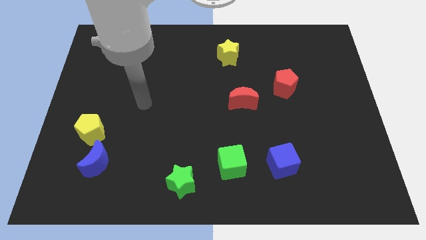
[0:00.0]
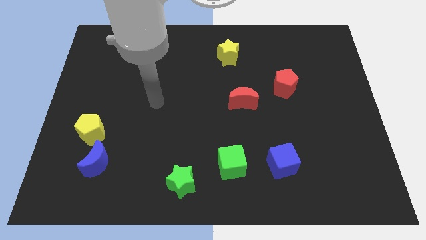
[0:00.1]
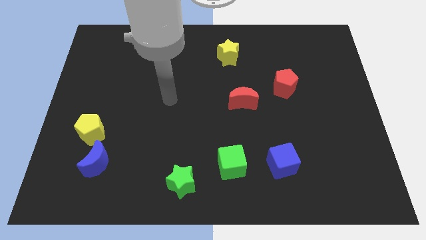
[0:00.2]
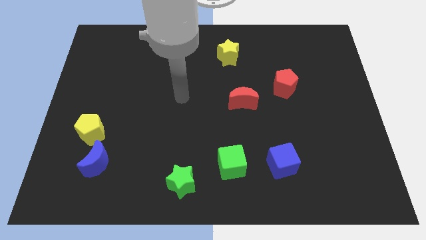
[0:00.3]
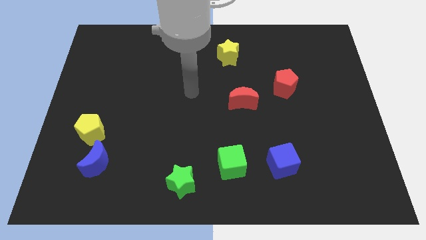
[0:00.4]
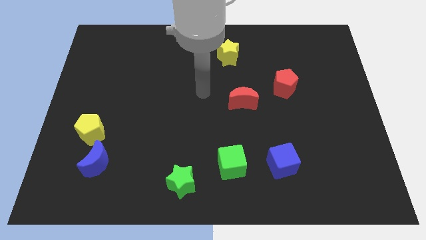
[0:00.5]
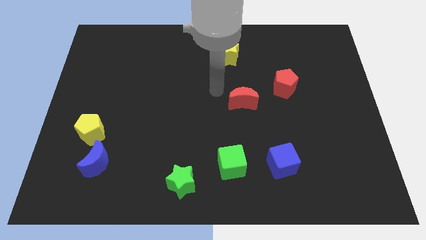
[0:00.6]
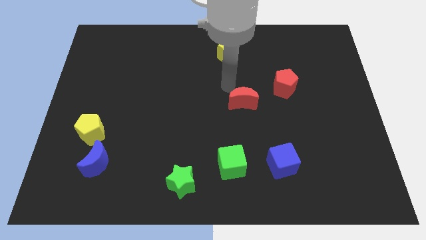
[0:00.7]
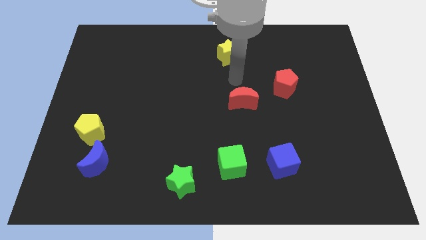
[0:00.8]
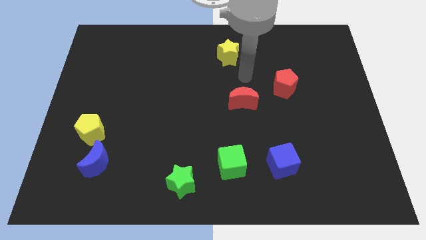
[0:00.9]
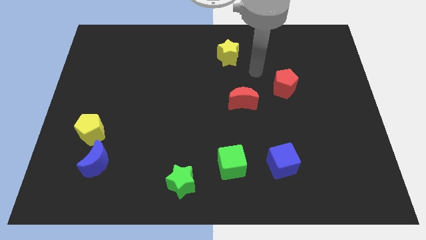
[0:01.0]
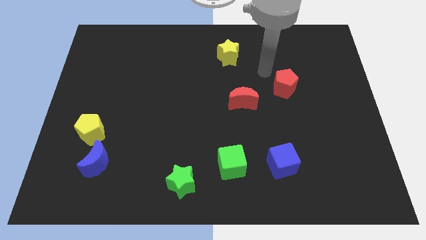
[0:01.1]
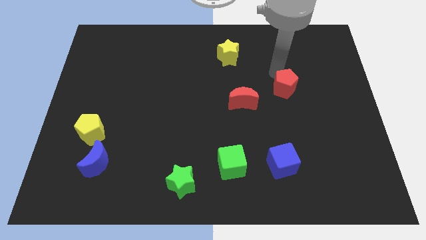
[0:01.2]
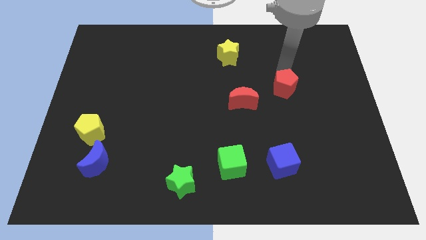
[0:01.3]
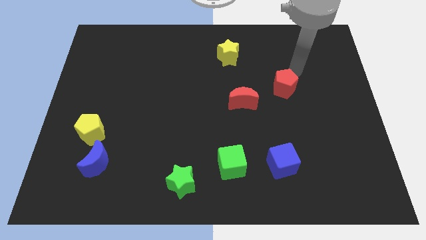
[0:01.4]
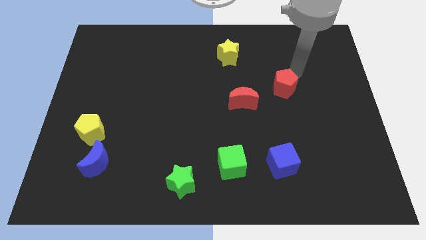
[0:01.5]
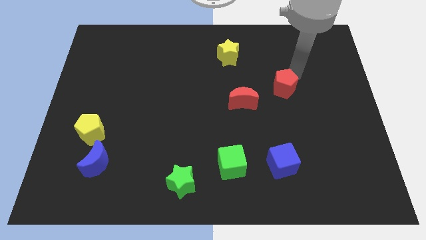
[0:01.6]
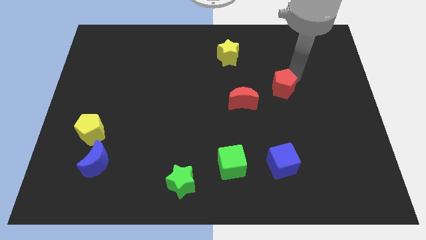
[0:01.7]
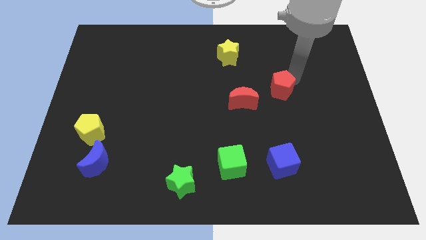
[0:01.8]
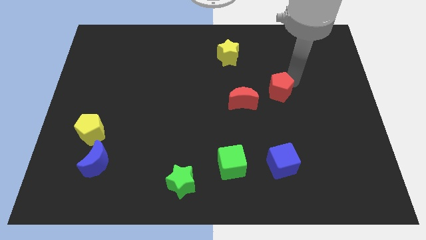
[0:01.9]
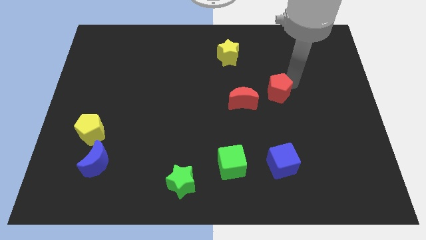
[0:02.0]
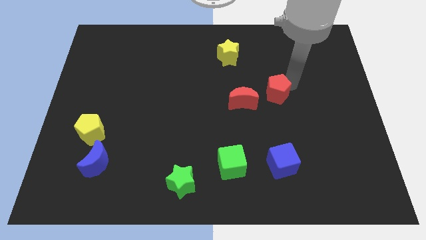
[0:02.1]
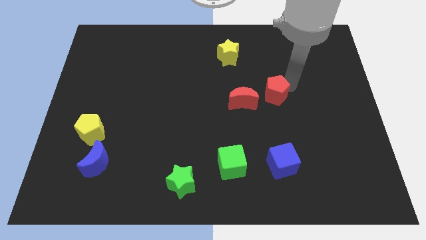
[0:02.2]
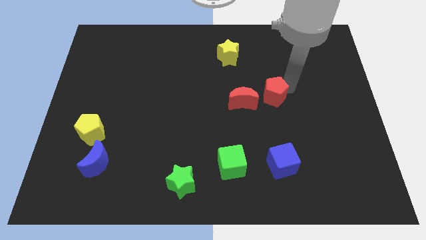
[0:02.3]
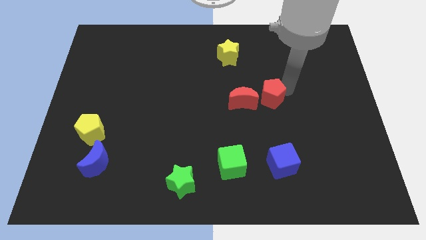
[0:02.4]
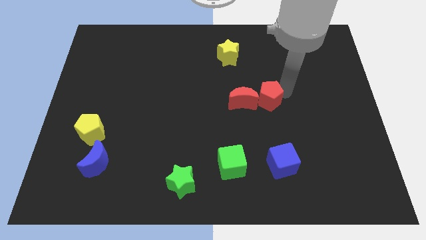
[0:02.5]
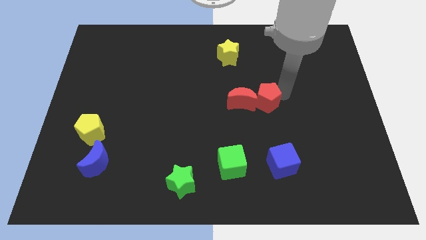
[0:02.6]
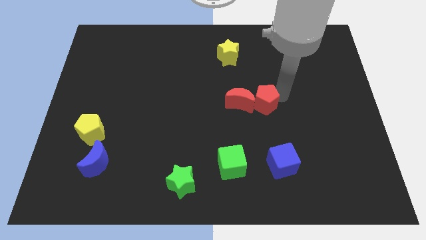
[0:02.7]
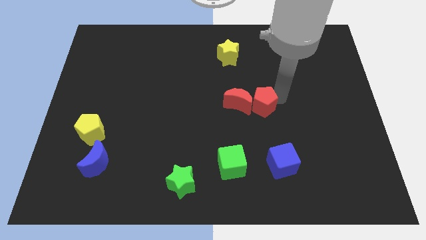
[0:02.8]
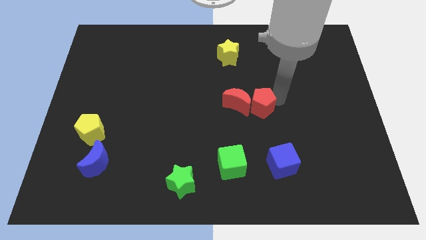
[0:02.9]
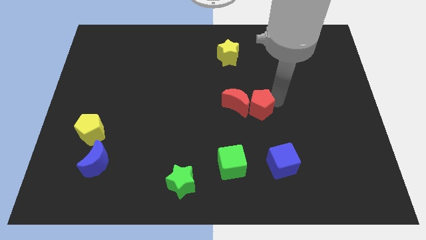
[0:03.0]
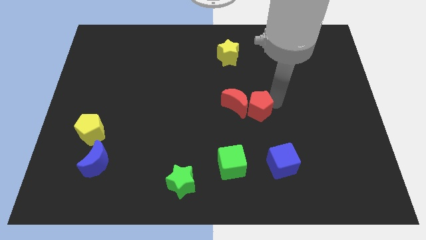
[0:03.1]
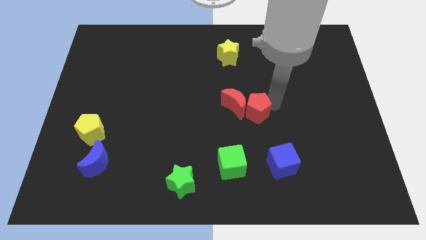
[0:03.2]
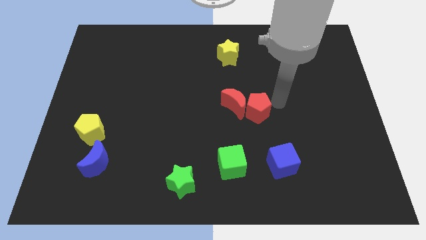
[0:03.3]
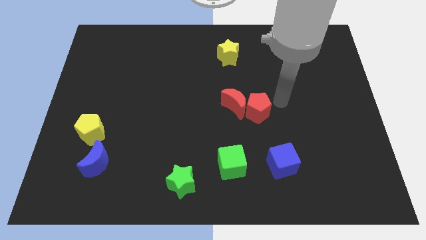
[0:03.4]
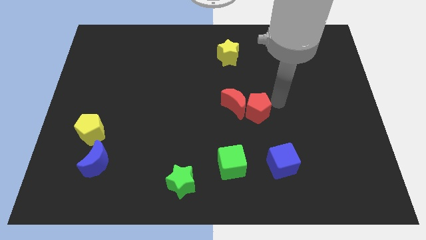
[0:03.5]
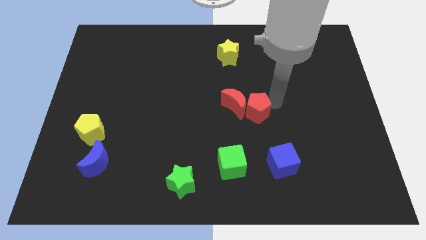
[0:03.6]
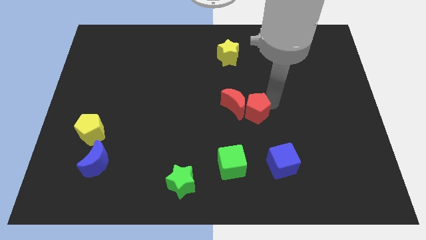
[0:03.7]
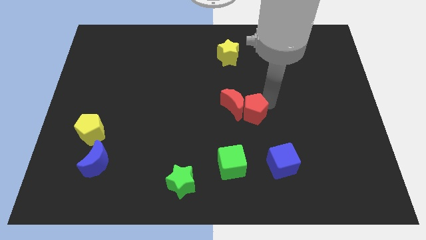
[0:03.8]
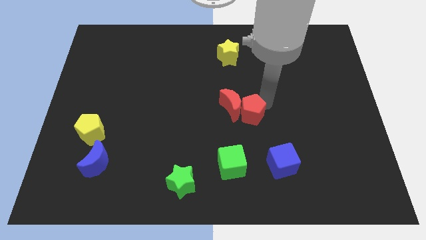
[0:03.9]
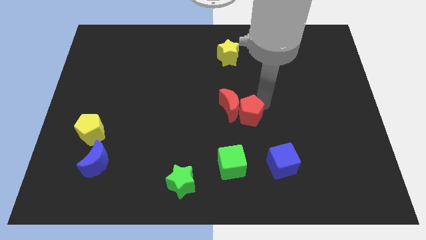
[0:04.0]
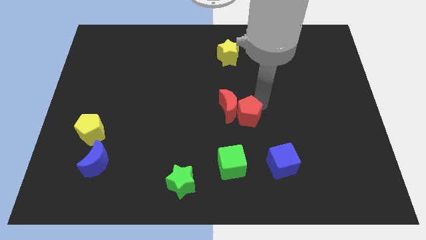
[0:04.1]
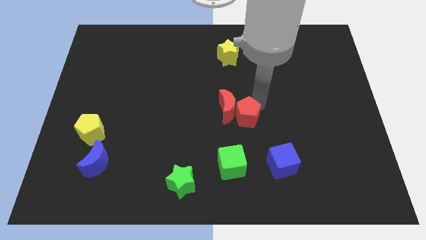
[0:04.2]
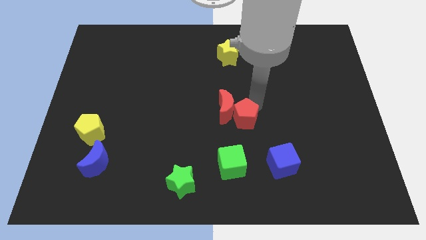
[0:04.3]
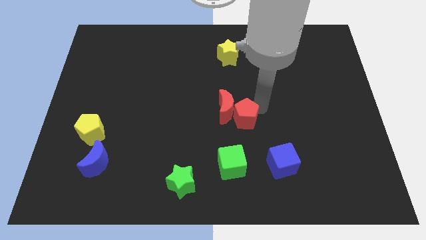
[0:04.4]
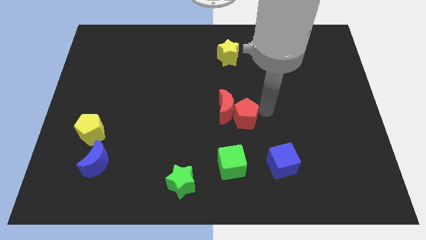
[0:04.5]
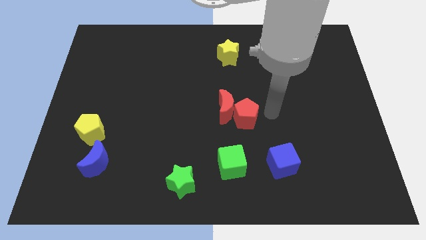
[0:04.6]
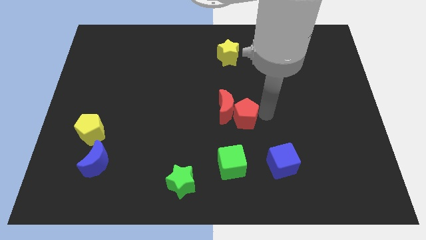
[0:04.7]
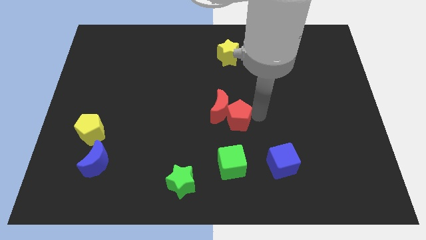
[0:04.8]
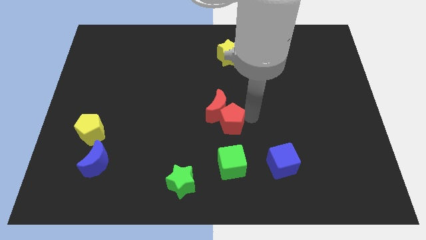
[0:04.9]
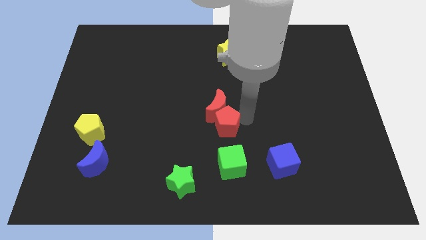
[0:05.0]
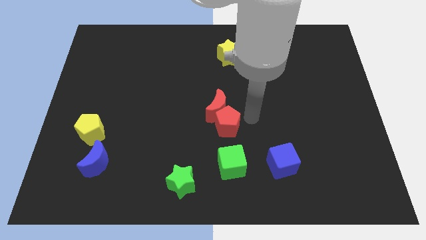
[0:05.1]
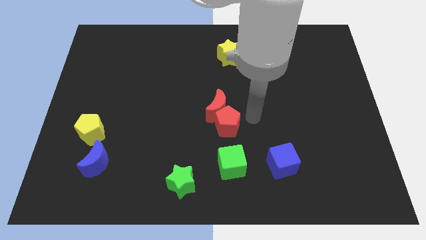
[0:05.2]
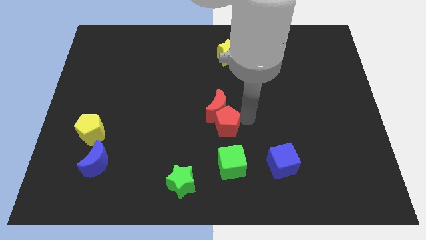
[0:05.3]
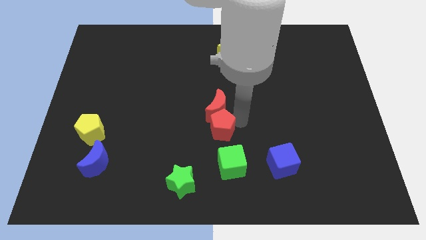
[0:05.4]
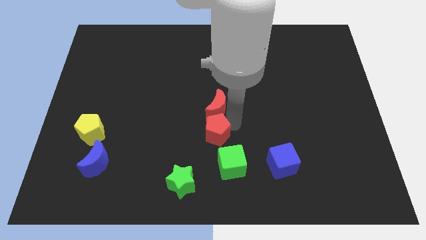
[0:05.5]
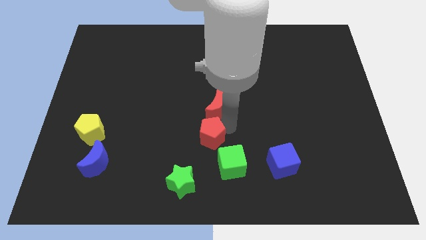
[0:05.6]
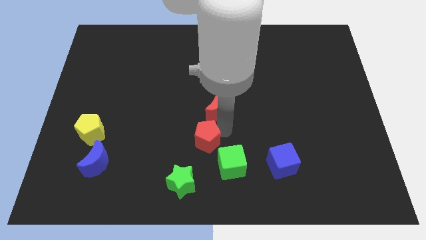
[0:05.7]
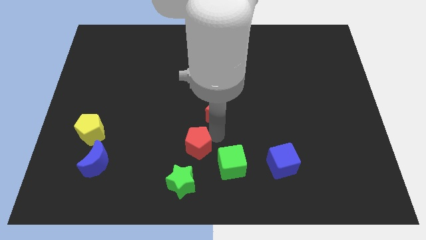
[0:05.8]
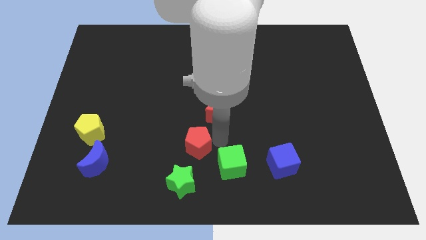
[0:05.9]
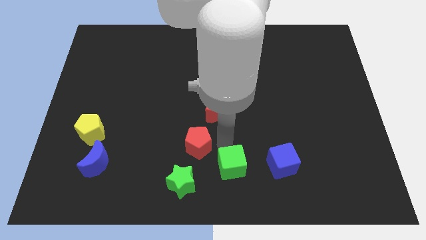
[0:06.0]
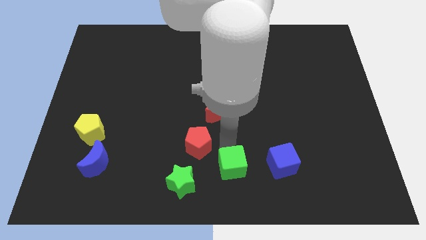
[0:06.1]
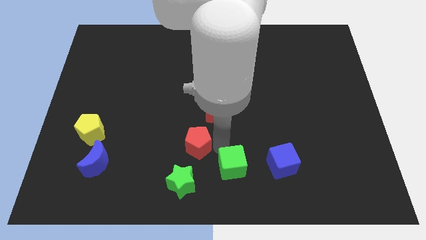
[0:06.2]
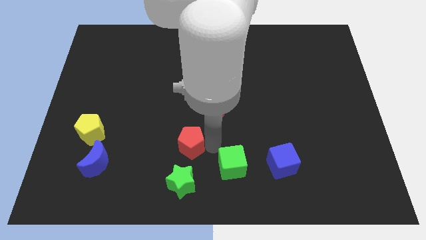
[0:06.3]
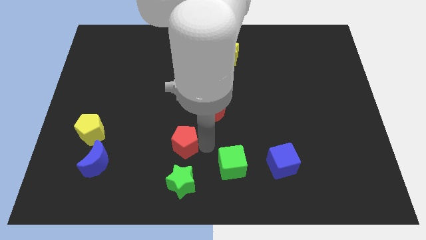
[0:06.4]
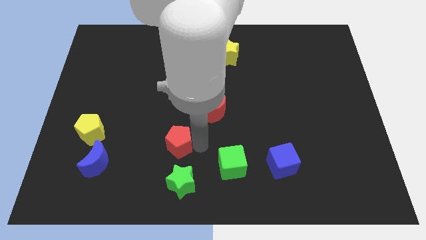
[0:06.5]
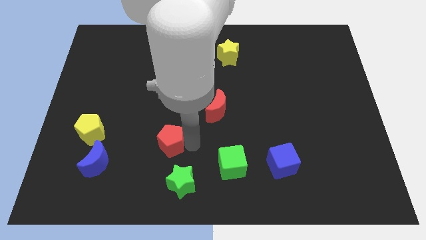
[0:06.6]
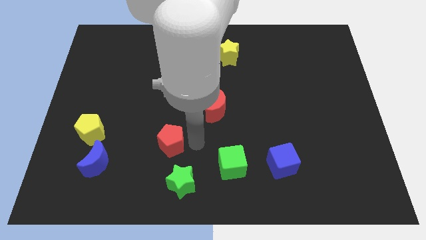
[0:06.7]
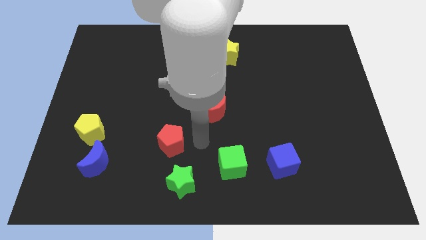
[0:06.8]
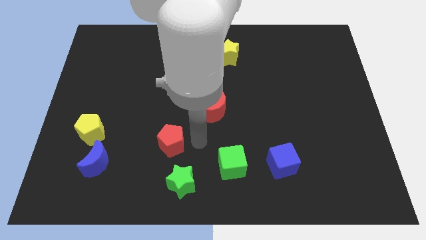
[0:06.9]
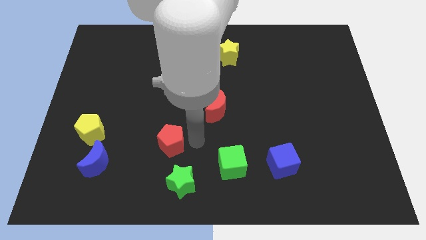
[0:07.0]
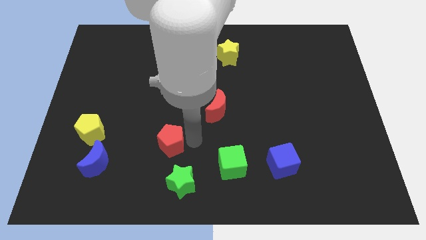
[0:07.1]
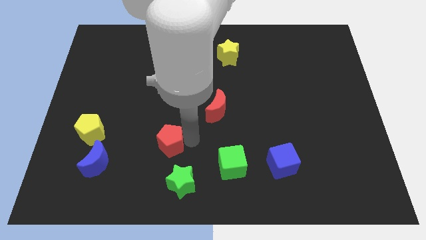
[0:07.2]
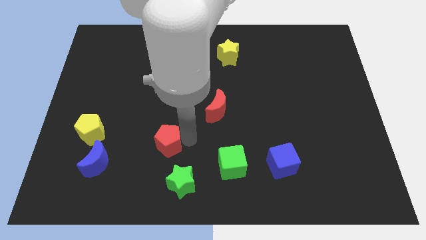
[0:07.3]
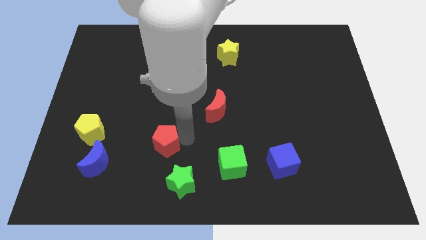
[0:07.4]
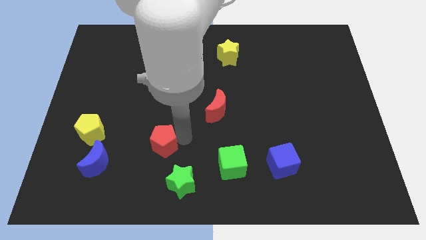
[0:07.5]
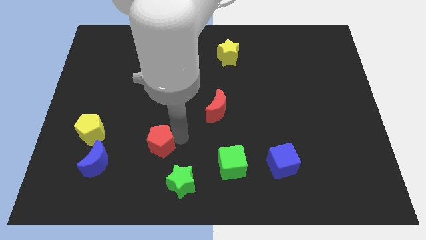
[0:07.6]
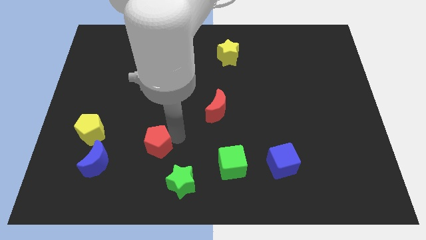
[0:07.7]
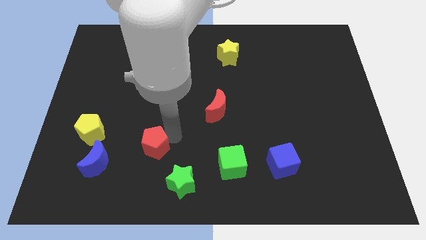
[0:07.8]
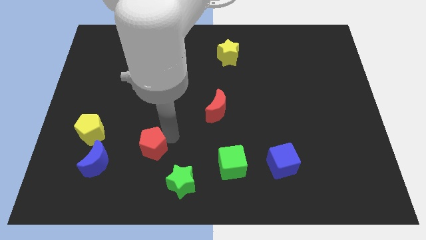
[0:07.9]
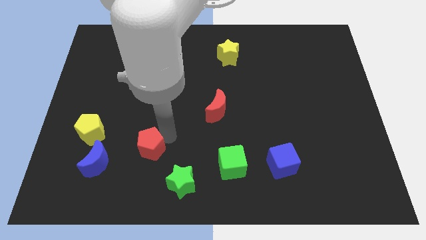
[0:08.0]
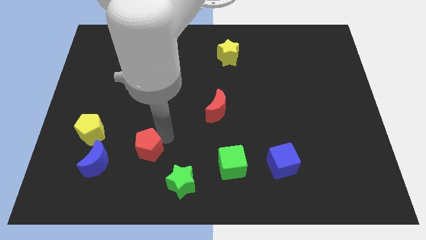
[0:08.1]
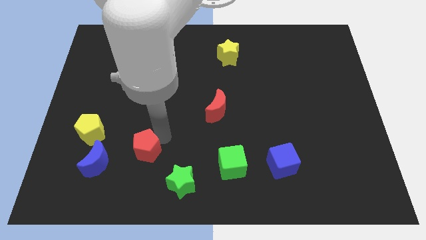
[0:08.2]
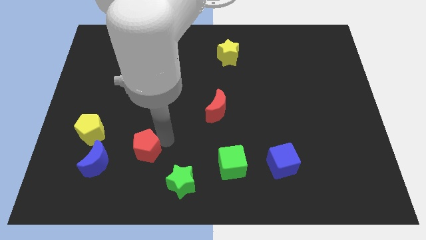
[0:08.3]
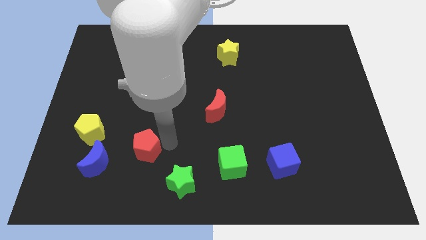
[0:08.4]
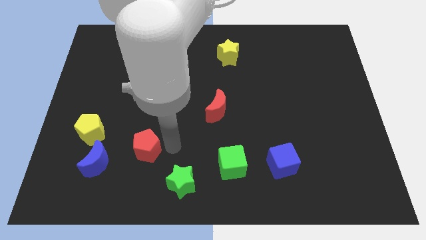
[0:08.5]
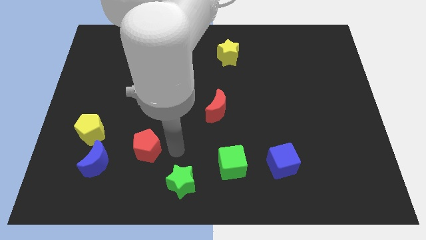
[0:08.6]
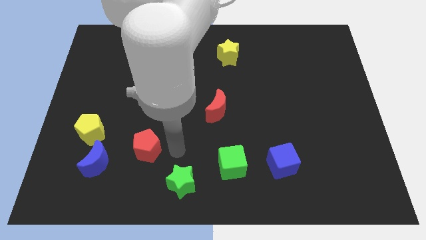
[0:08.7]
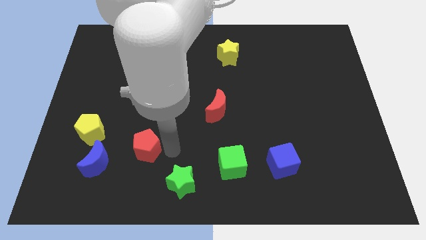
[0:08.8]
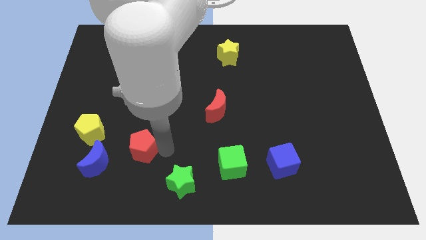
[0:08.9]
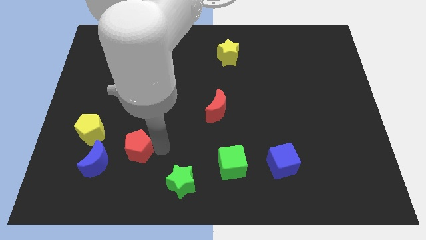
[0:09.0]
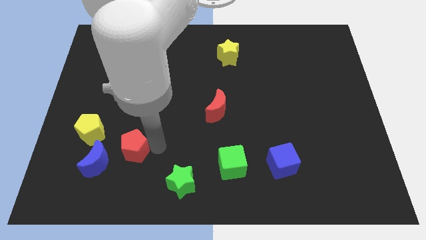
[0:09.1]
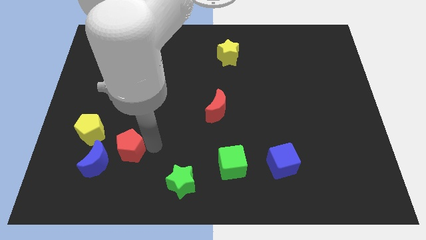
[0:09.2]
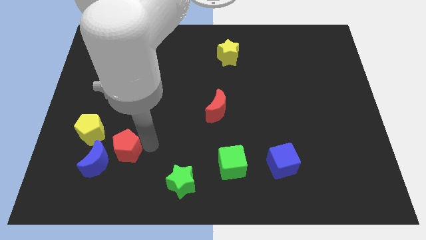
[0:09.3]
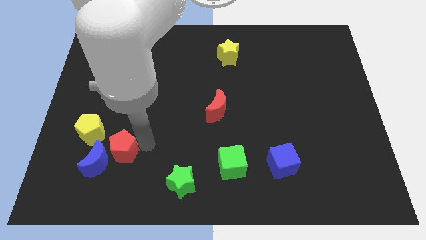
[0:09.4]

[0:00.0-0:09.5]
slide the red pentagon close to the blue moon
